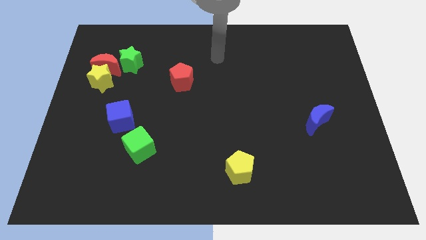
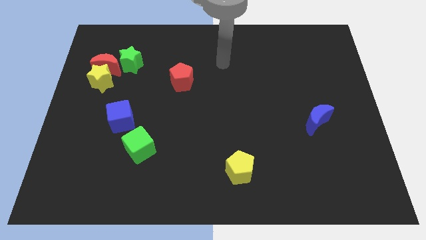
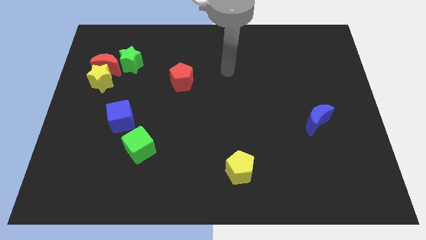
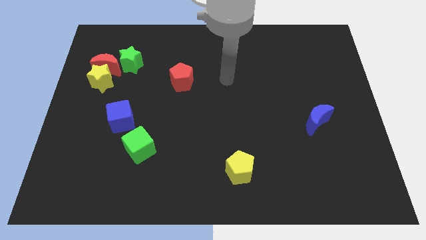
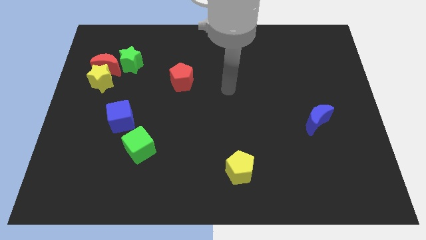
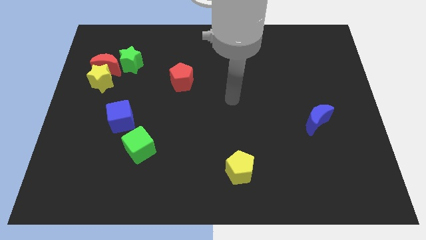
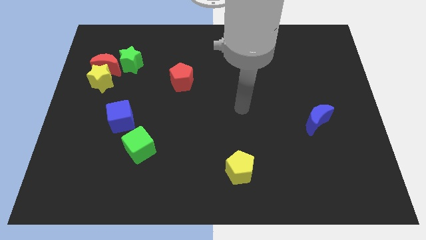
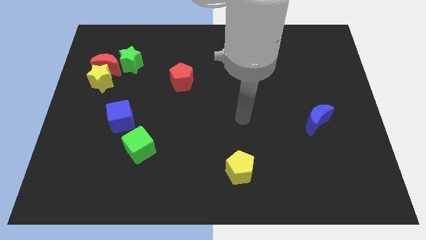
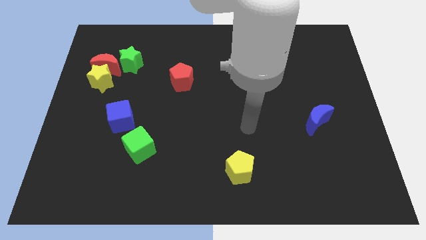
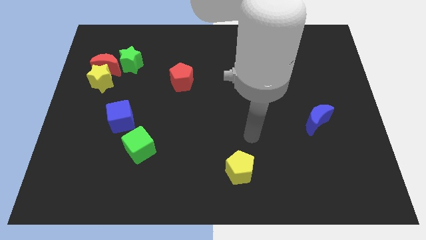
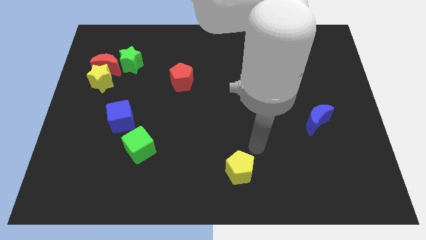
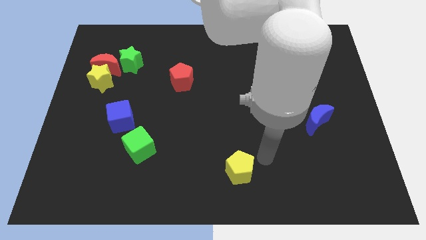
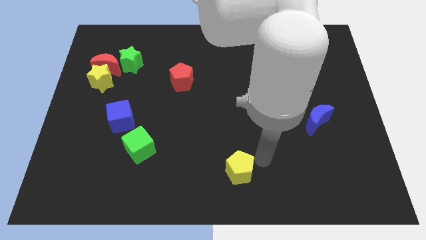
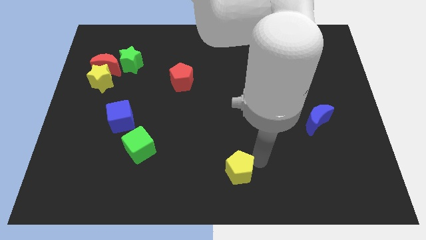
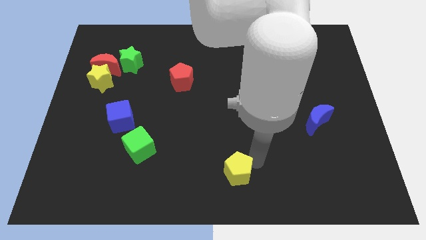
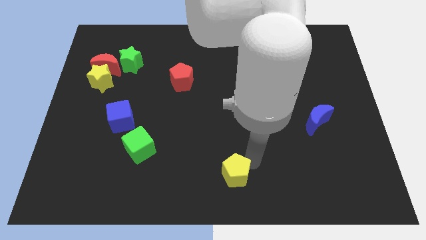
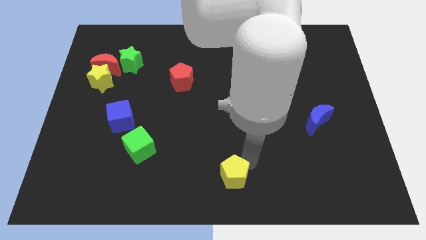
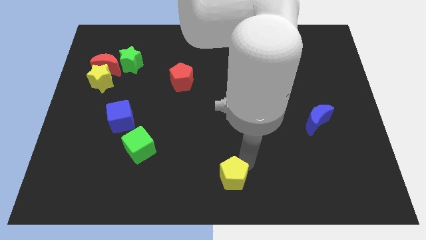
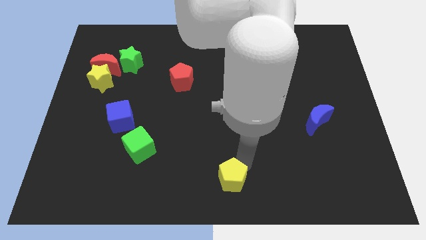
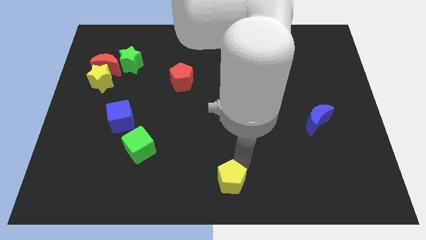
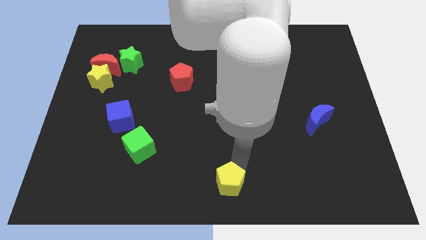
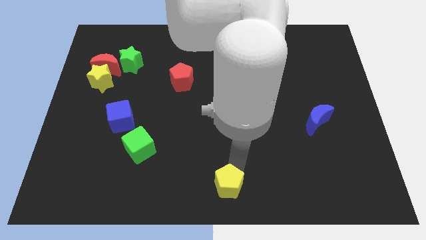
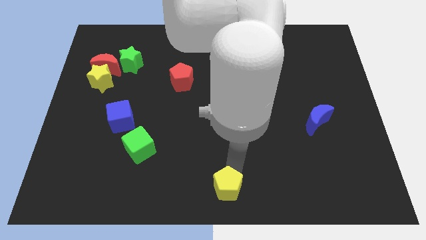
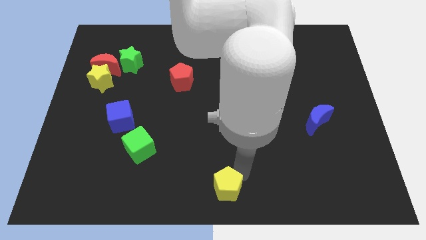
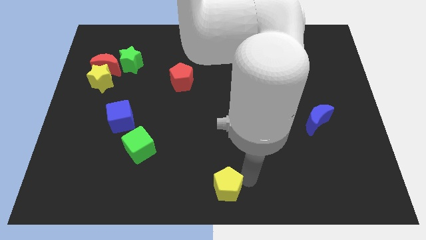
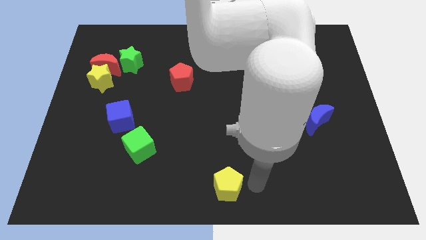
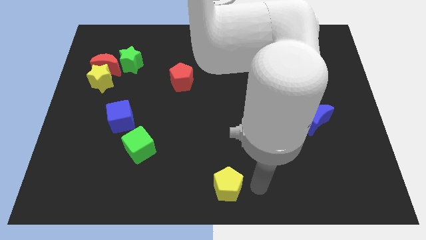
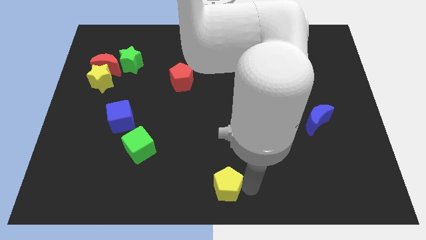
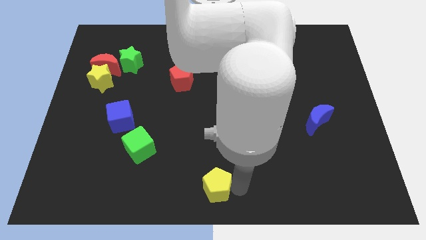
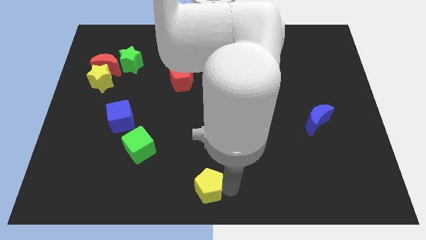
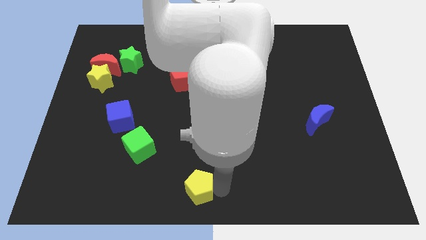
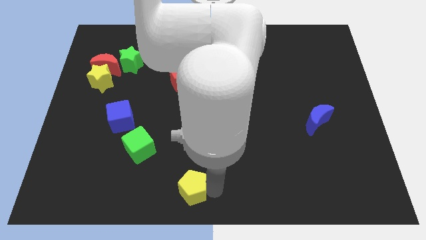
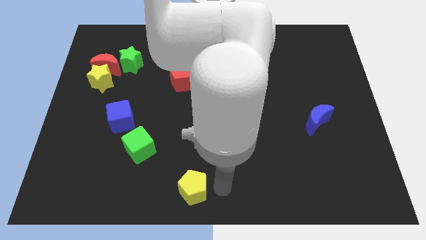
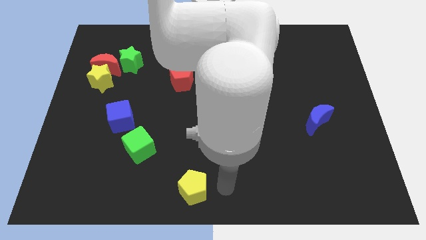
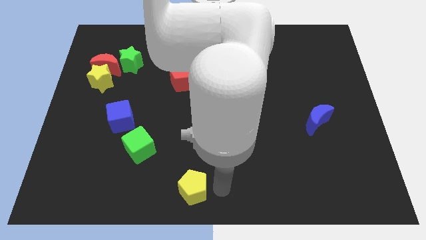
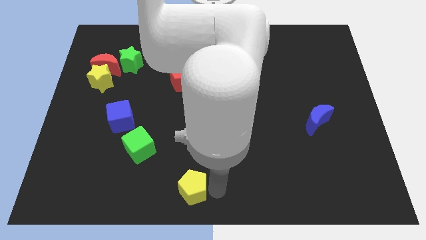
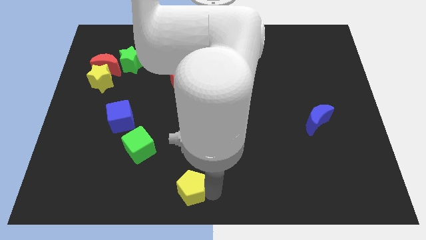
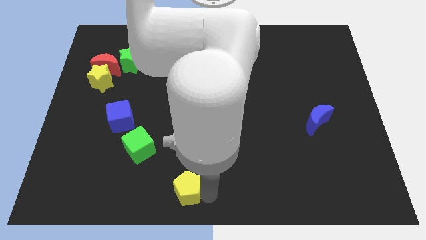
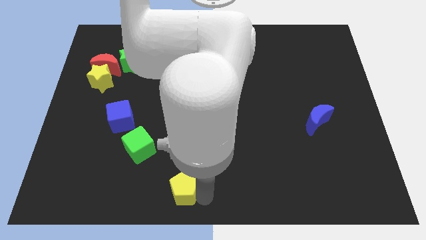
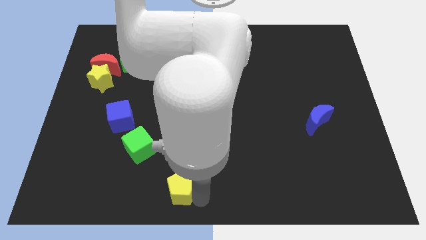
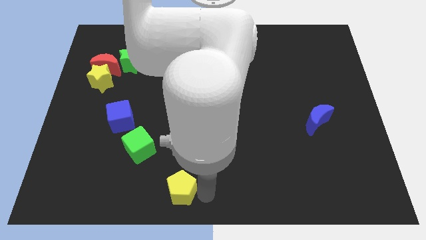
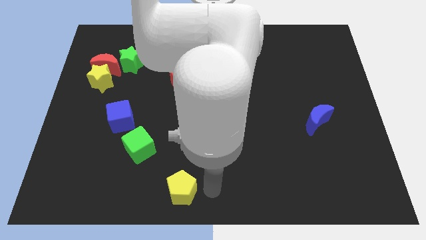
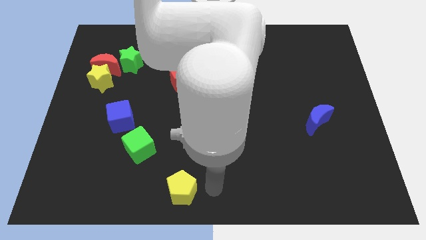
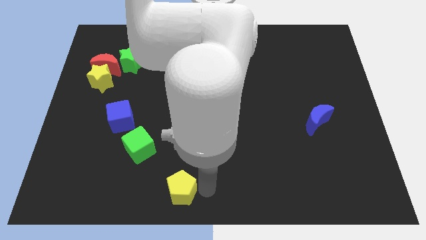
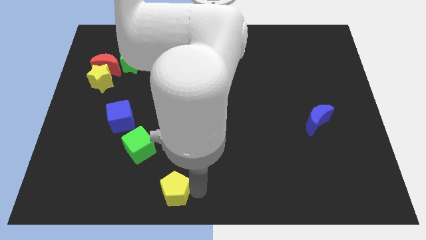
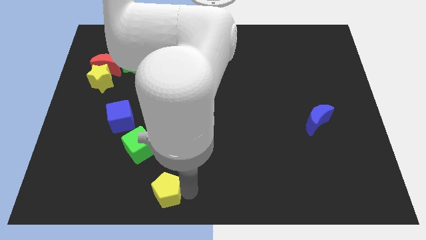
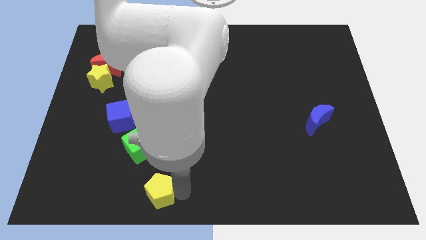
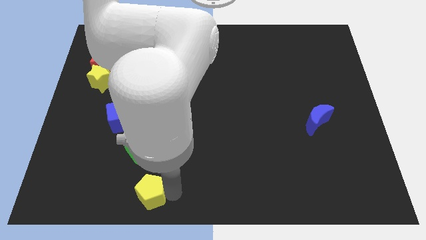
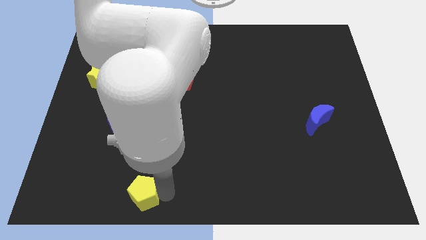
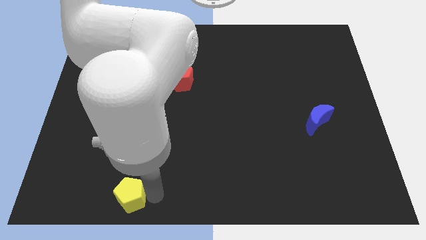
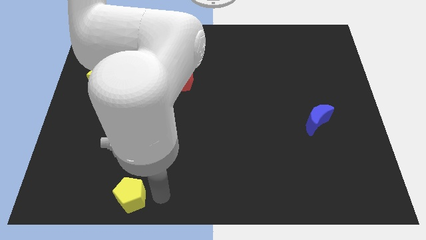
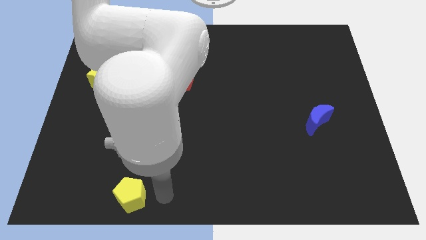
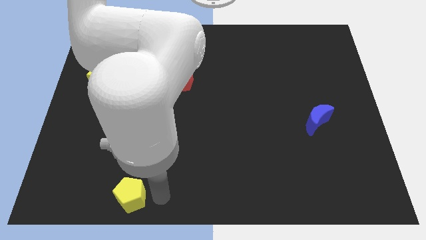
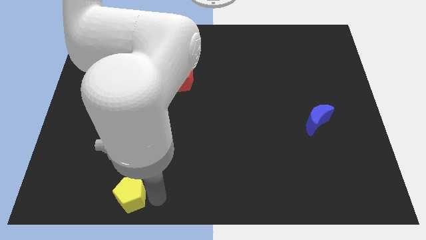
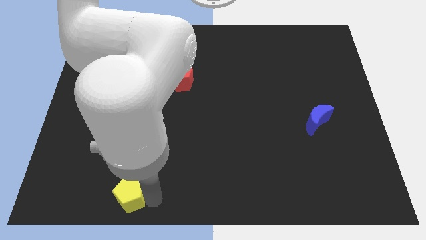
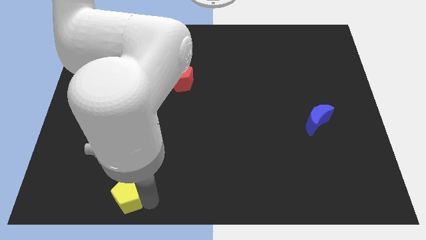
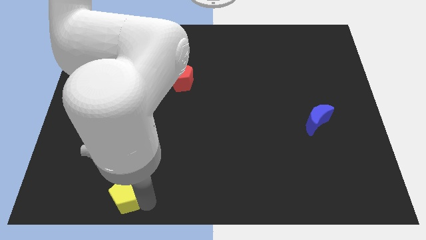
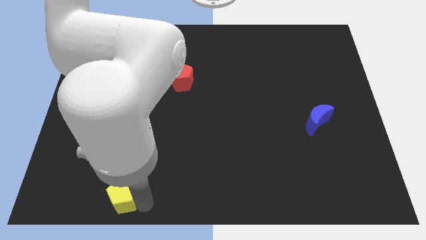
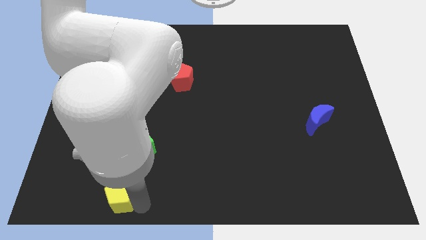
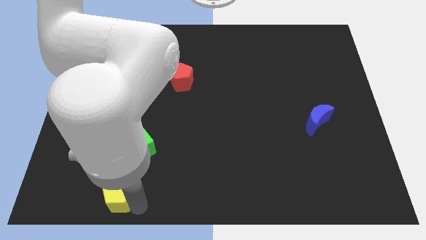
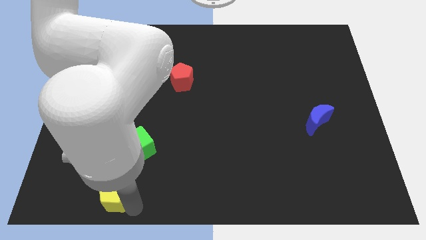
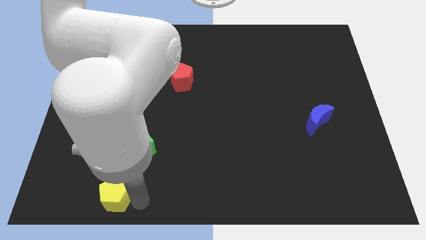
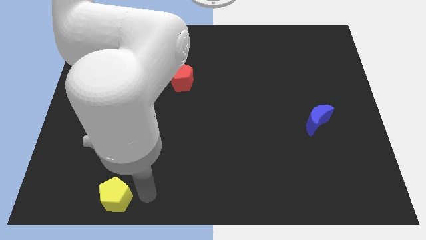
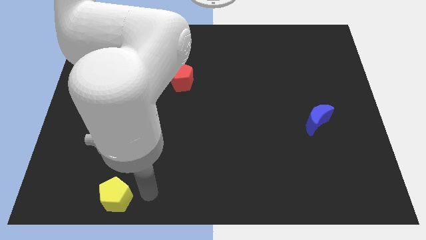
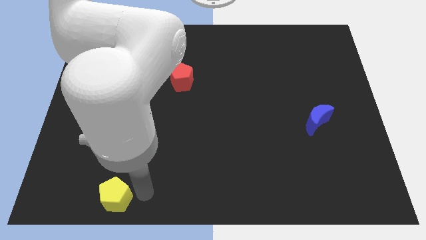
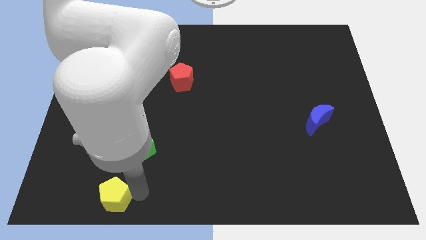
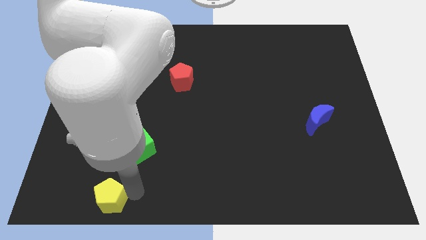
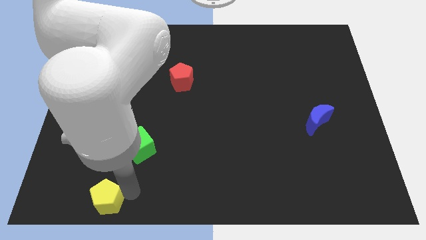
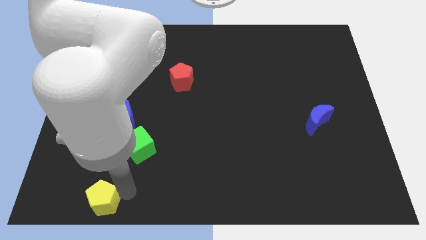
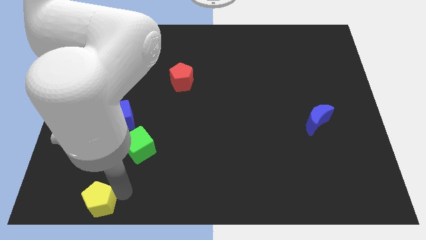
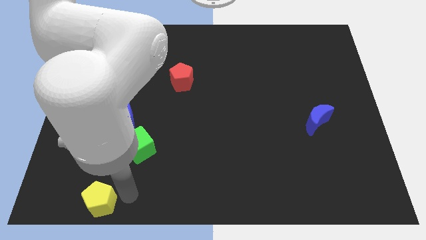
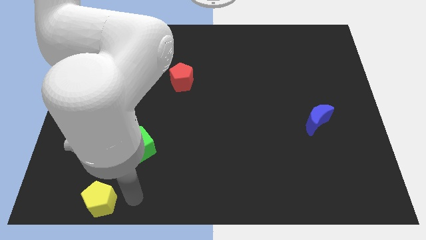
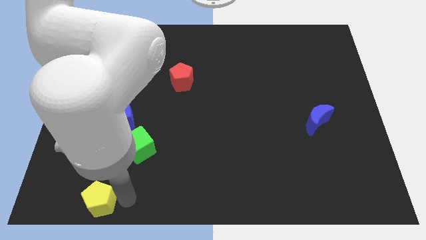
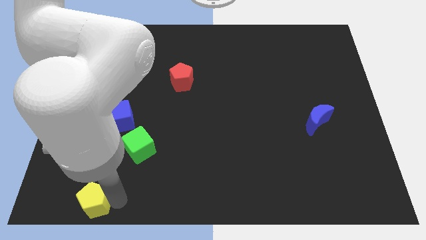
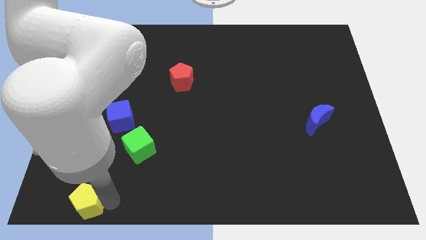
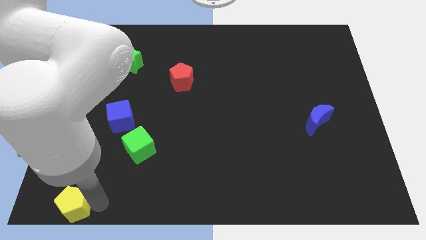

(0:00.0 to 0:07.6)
slide the yellow pentagon to the lower left corner

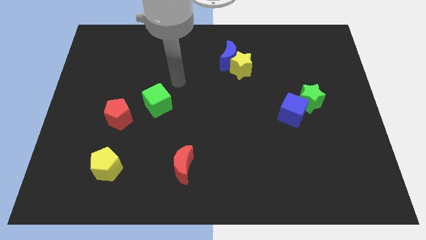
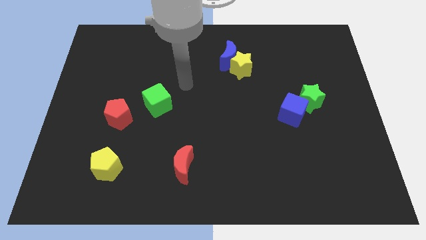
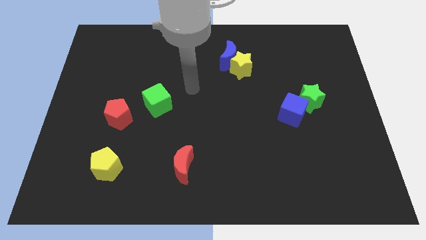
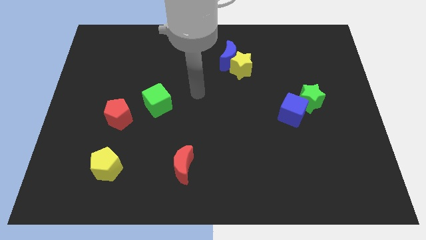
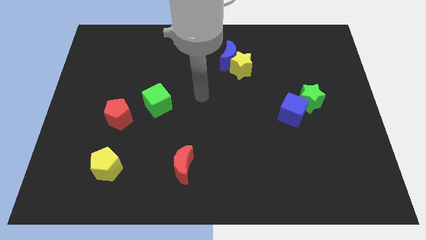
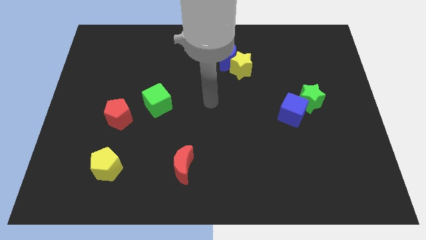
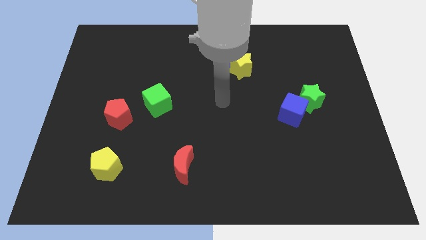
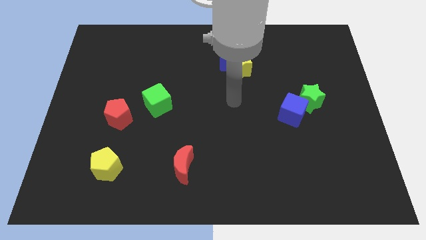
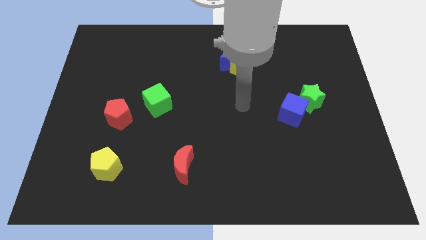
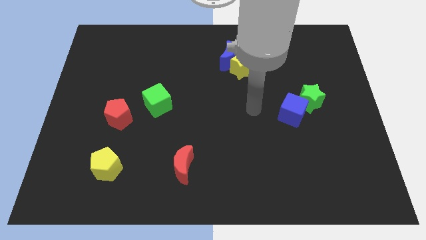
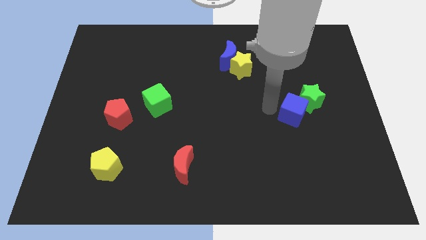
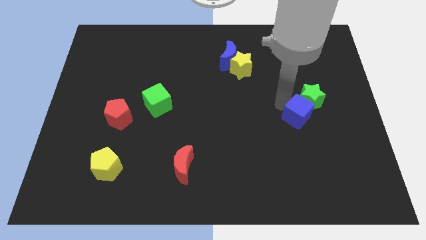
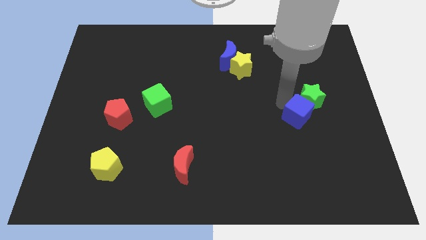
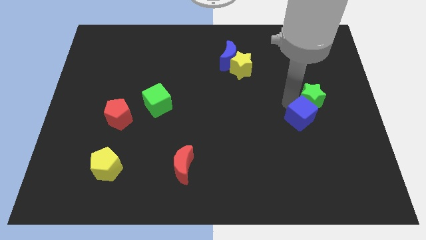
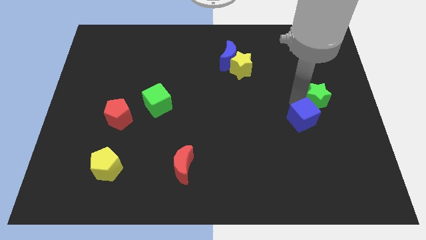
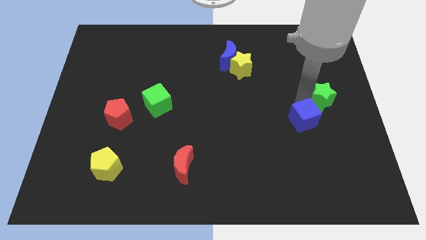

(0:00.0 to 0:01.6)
push the green star to the right side
